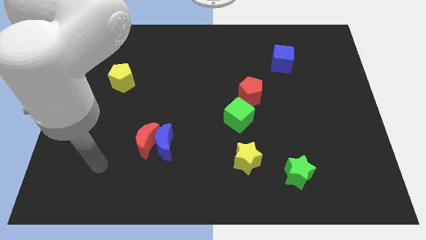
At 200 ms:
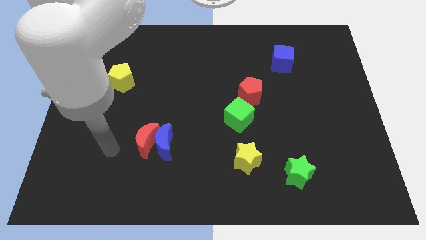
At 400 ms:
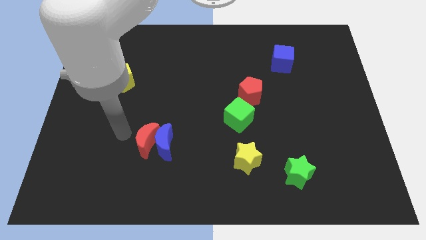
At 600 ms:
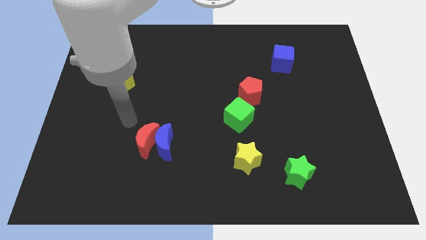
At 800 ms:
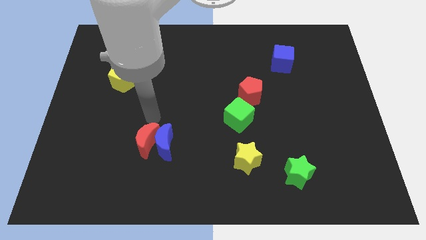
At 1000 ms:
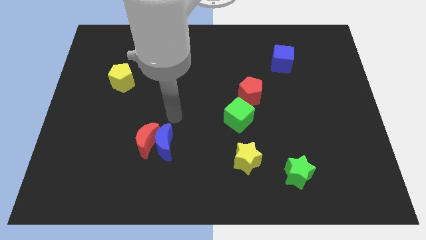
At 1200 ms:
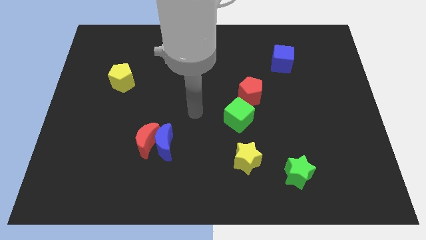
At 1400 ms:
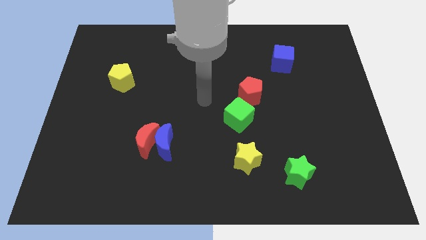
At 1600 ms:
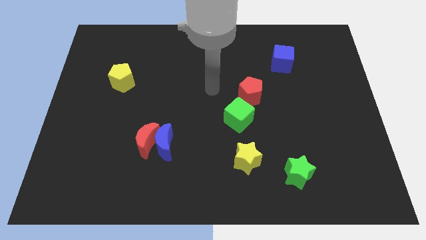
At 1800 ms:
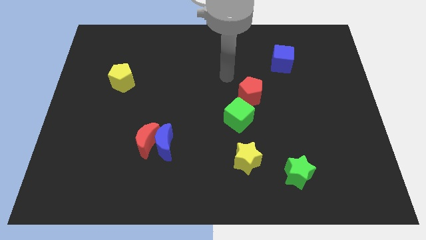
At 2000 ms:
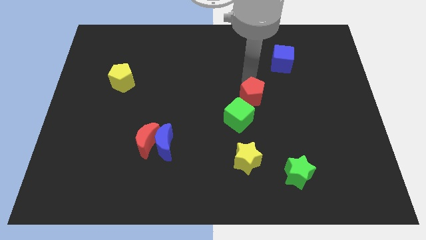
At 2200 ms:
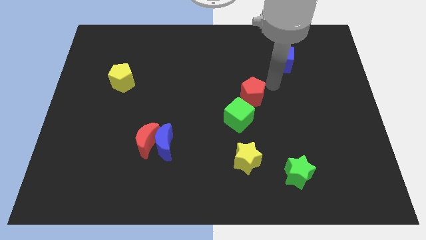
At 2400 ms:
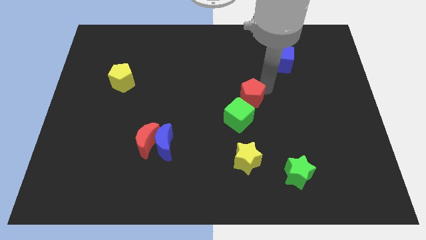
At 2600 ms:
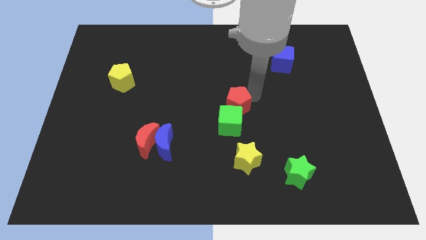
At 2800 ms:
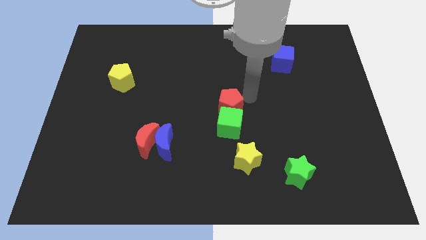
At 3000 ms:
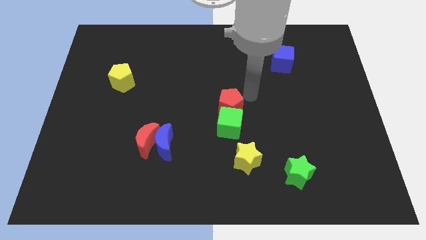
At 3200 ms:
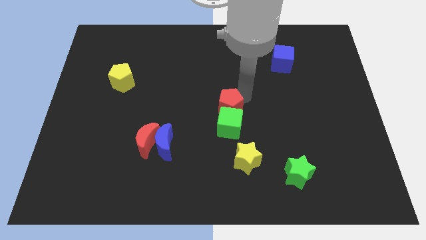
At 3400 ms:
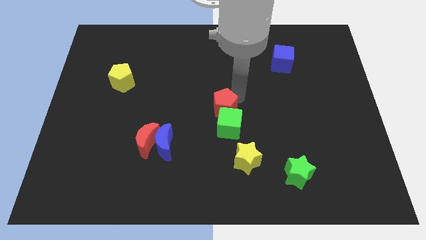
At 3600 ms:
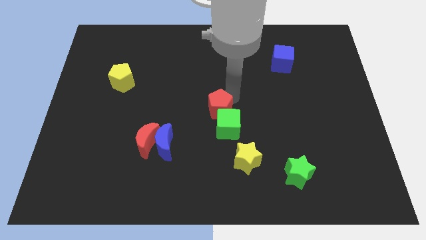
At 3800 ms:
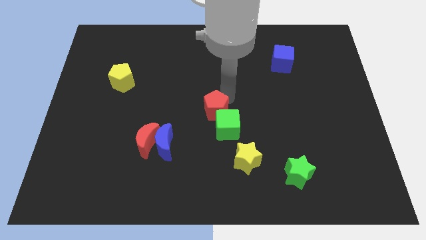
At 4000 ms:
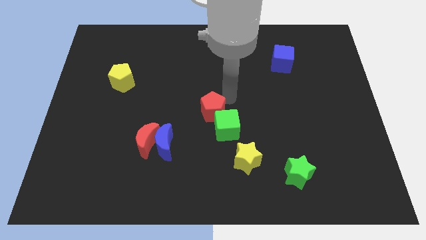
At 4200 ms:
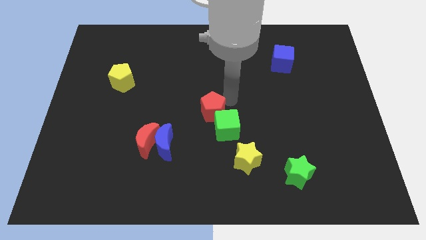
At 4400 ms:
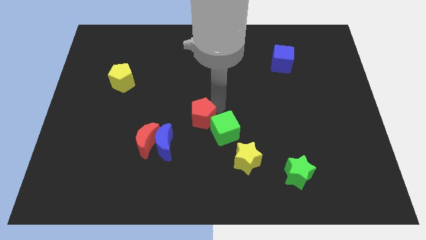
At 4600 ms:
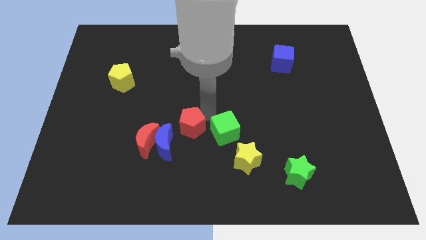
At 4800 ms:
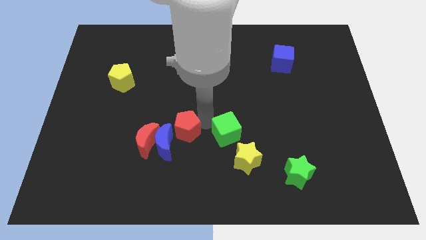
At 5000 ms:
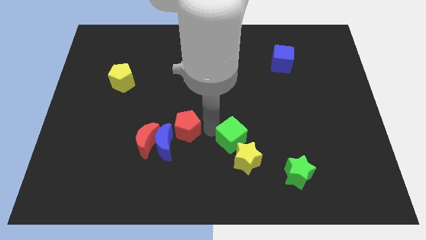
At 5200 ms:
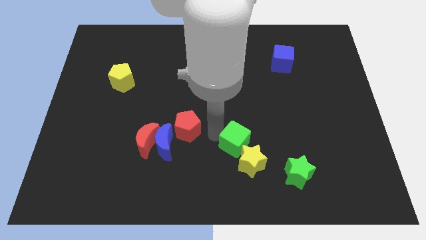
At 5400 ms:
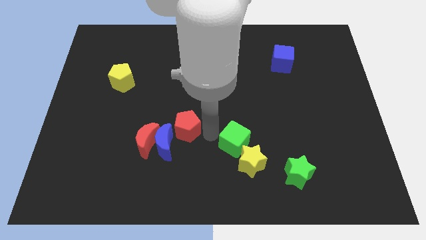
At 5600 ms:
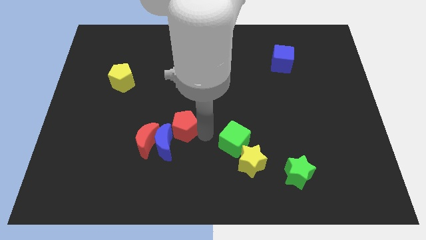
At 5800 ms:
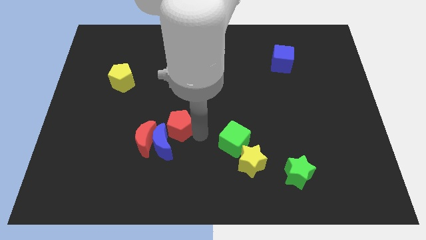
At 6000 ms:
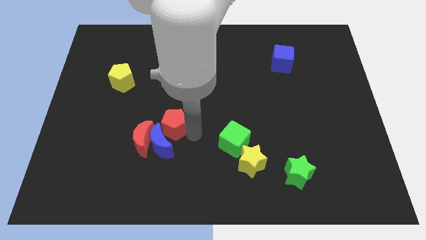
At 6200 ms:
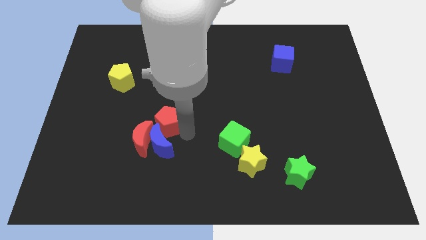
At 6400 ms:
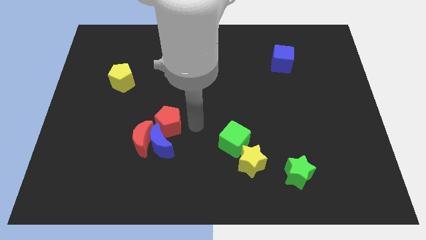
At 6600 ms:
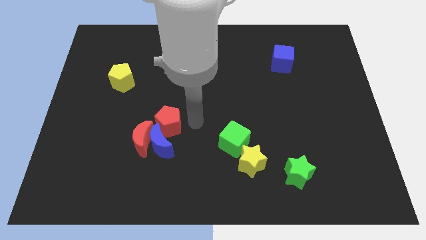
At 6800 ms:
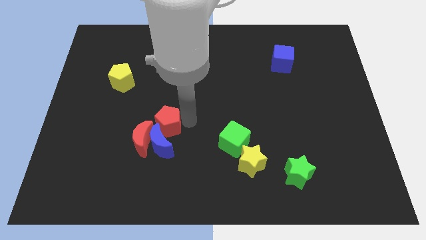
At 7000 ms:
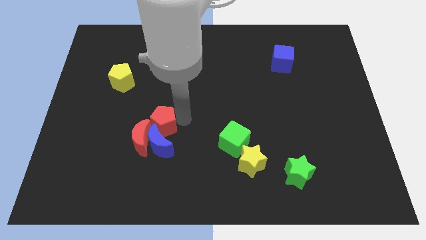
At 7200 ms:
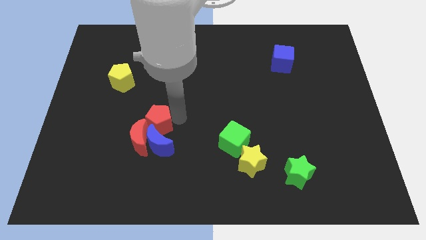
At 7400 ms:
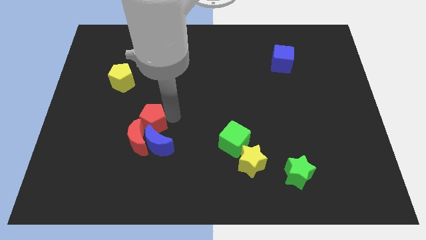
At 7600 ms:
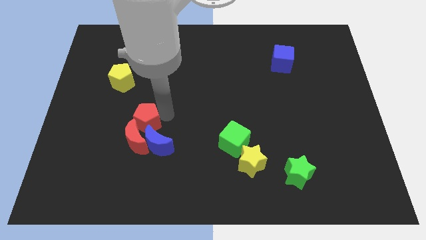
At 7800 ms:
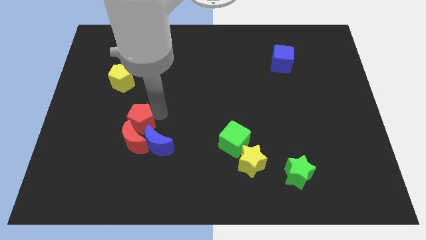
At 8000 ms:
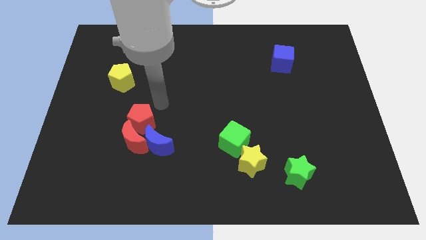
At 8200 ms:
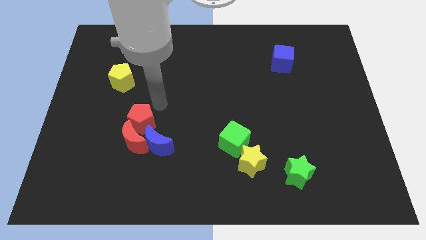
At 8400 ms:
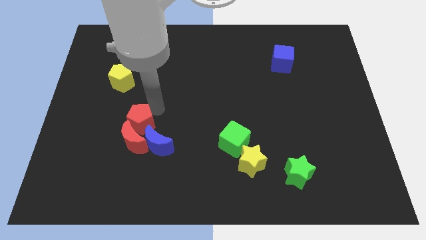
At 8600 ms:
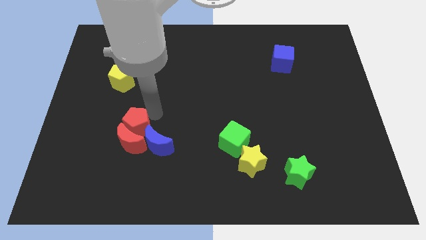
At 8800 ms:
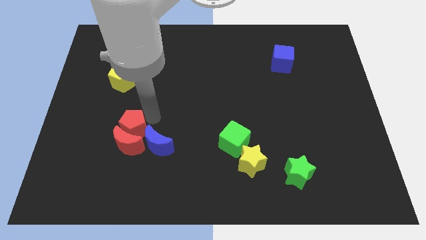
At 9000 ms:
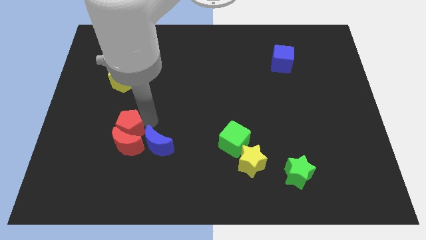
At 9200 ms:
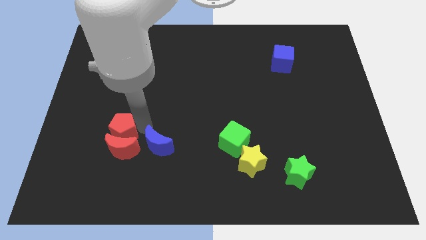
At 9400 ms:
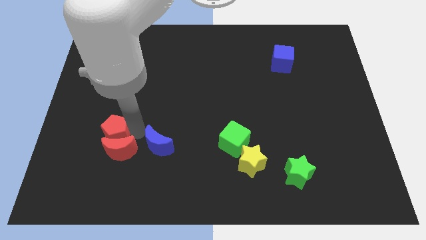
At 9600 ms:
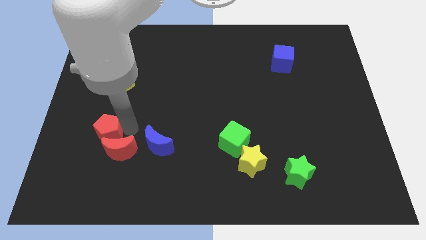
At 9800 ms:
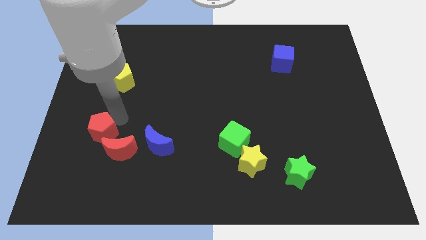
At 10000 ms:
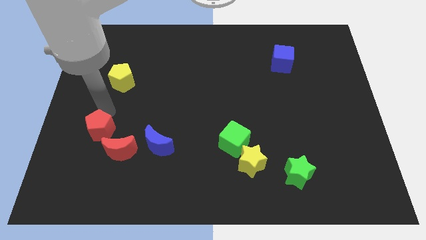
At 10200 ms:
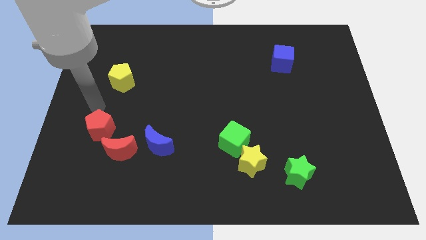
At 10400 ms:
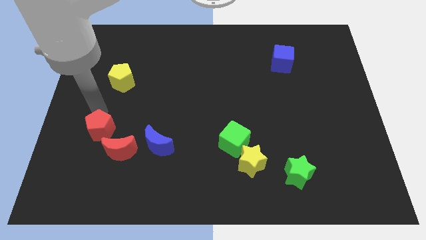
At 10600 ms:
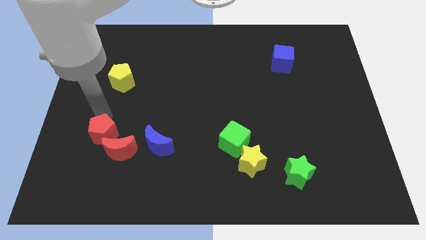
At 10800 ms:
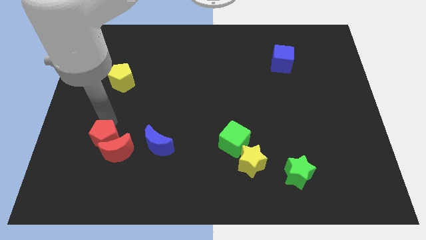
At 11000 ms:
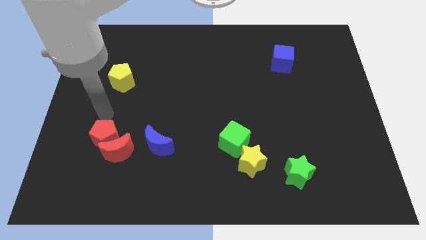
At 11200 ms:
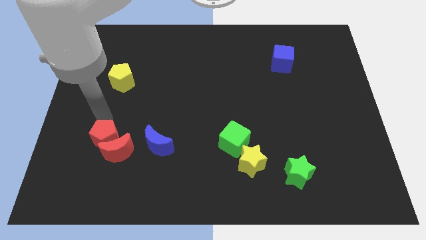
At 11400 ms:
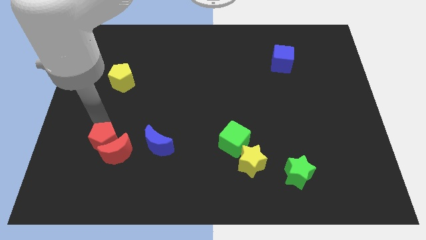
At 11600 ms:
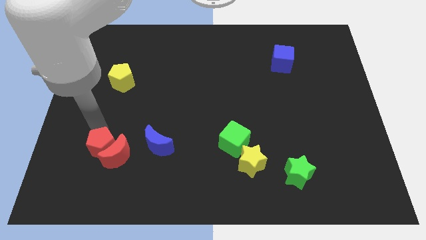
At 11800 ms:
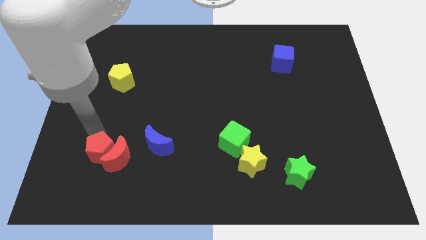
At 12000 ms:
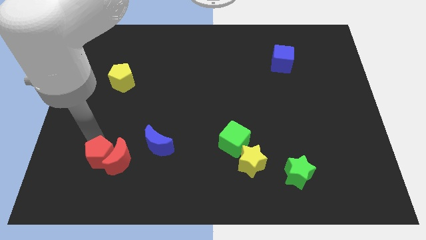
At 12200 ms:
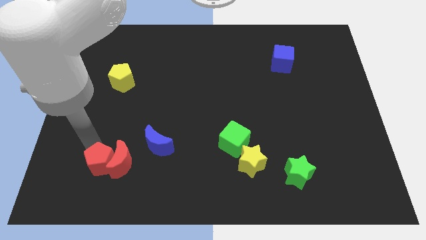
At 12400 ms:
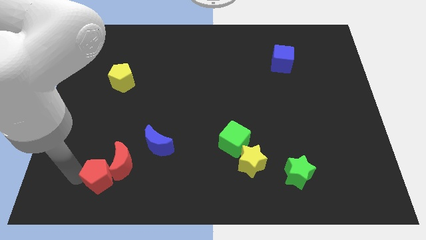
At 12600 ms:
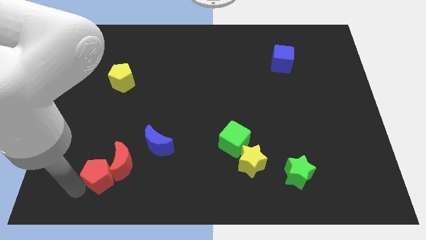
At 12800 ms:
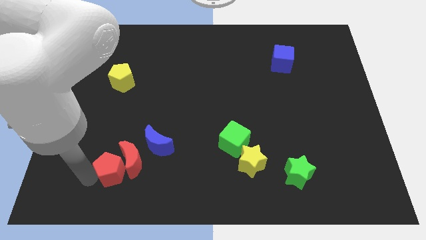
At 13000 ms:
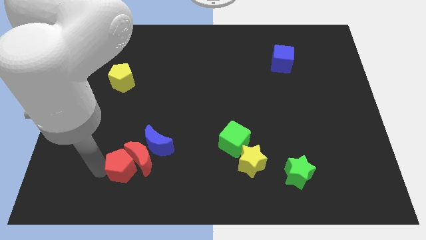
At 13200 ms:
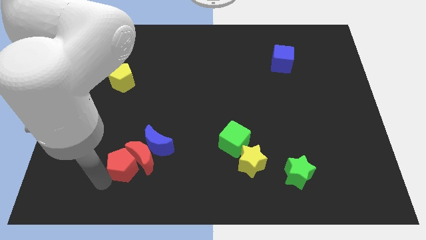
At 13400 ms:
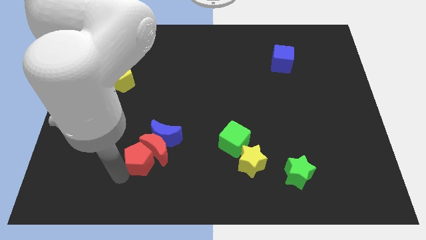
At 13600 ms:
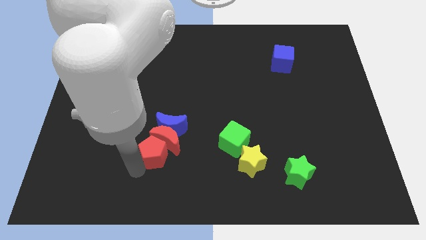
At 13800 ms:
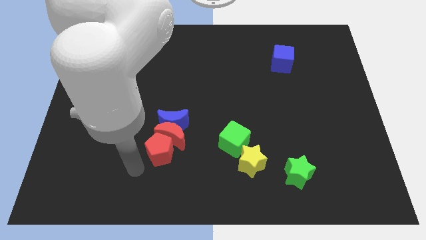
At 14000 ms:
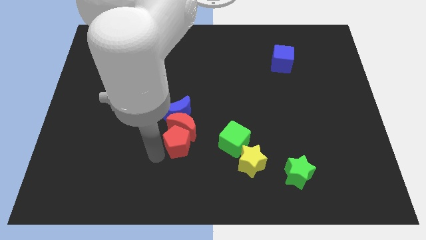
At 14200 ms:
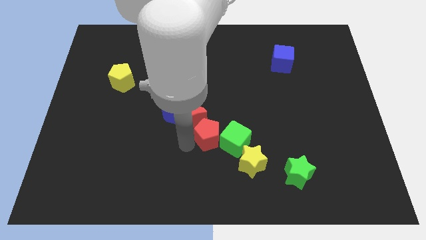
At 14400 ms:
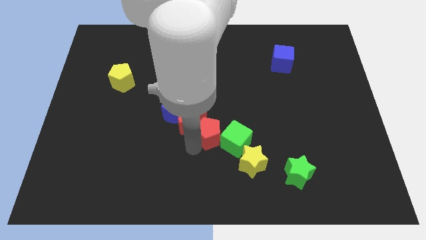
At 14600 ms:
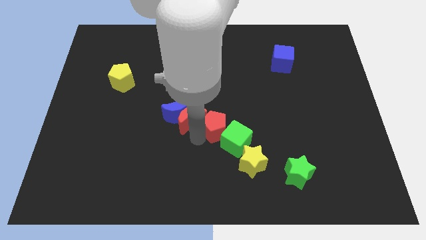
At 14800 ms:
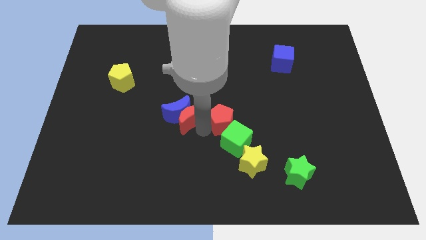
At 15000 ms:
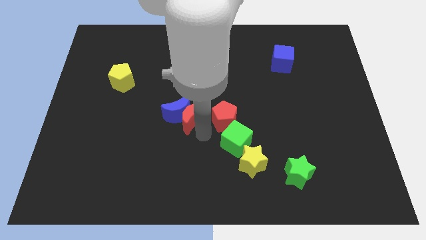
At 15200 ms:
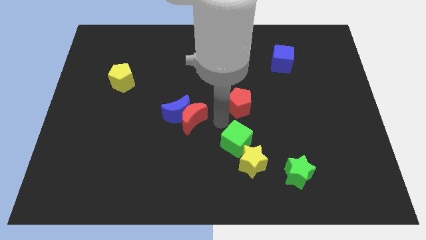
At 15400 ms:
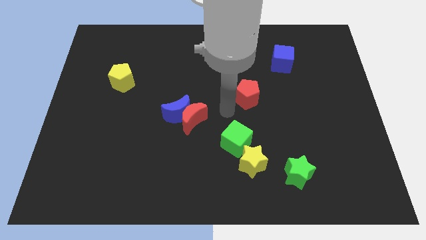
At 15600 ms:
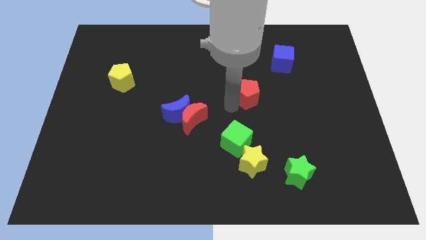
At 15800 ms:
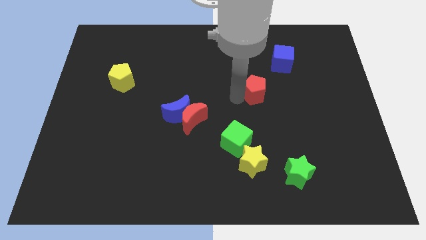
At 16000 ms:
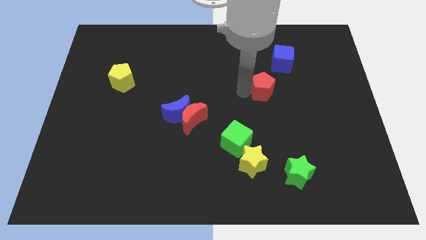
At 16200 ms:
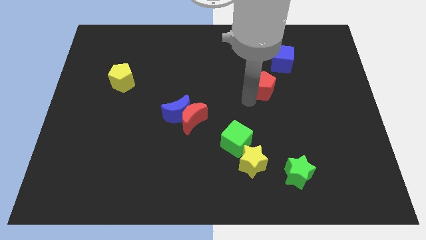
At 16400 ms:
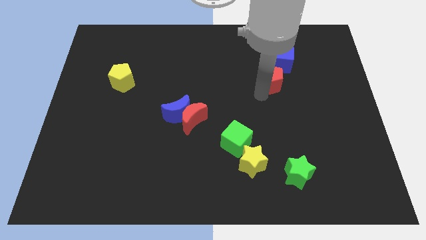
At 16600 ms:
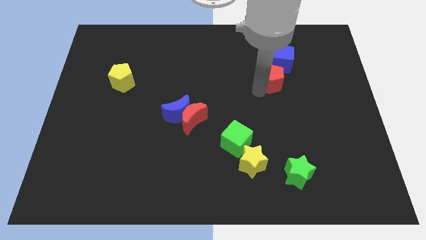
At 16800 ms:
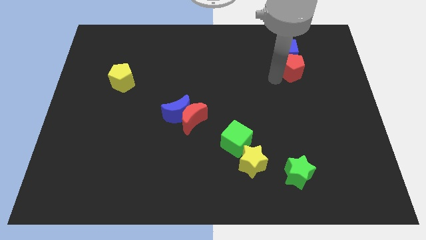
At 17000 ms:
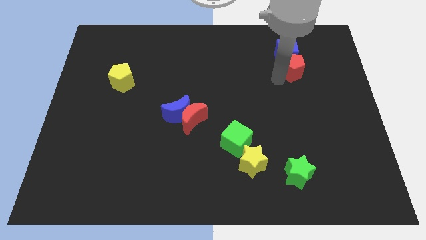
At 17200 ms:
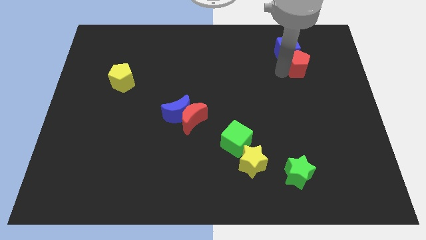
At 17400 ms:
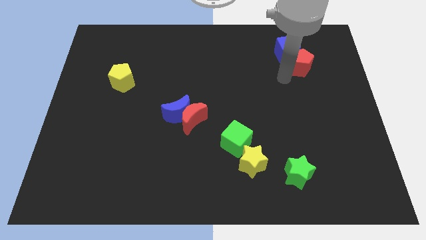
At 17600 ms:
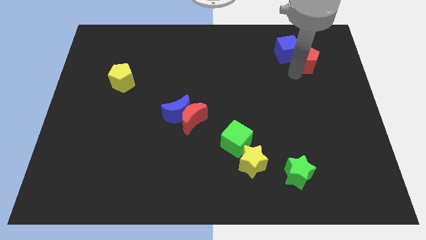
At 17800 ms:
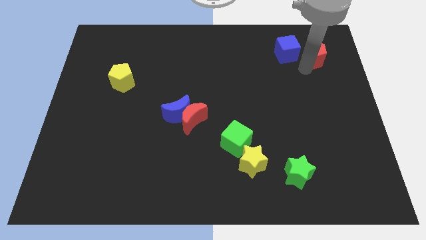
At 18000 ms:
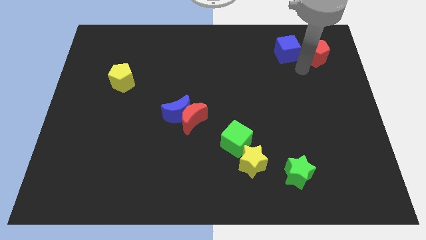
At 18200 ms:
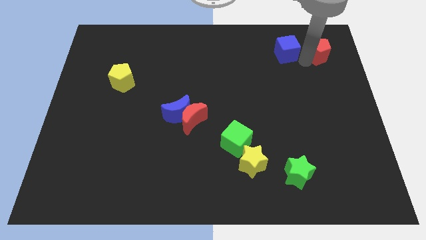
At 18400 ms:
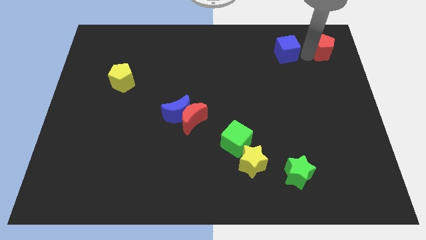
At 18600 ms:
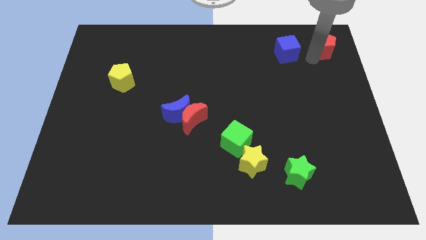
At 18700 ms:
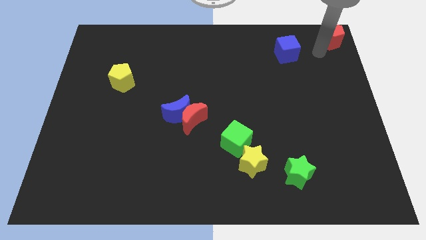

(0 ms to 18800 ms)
put the red pentagon to the top right of the board
